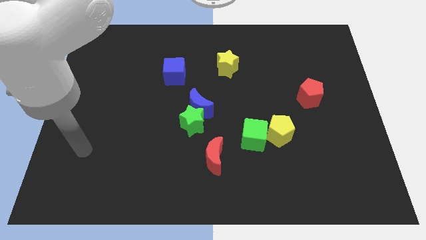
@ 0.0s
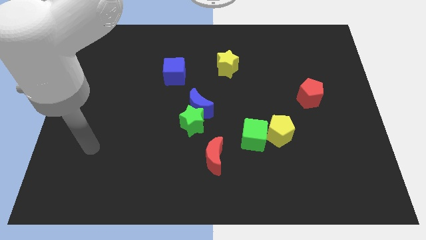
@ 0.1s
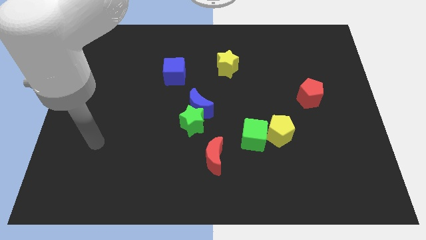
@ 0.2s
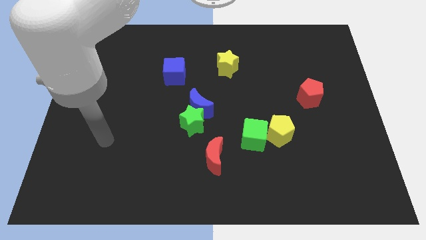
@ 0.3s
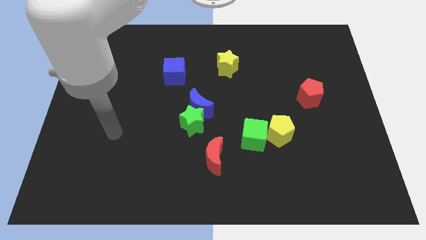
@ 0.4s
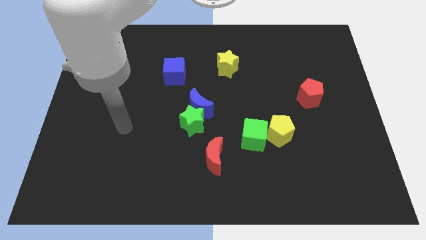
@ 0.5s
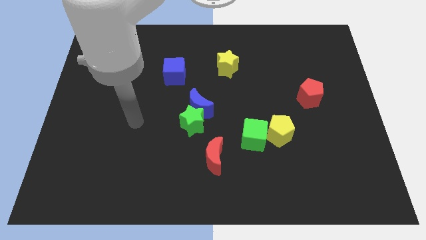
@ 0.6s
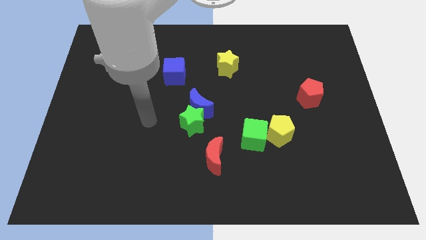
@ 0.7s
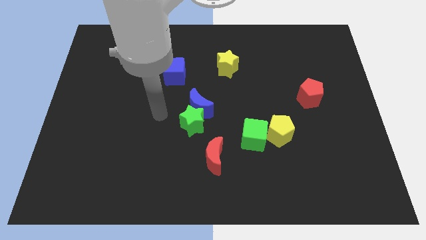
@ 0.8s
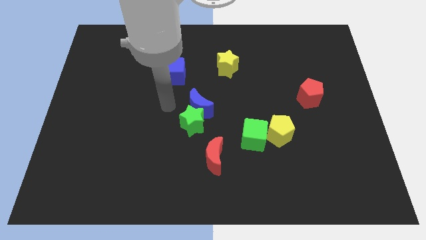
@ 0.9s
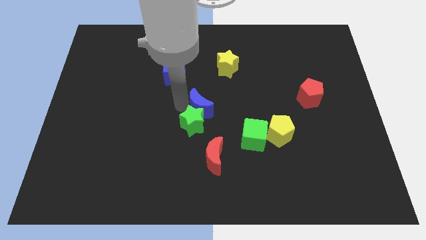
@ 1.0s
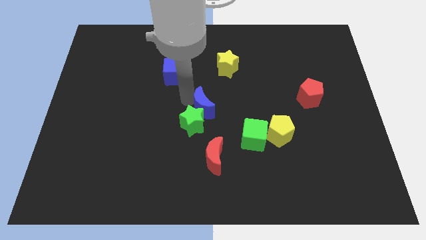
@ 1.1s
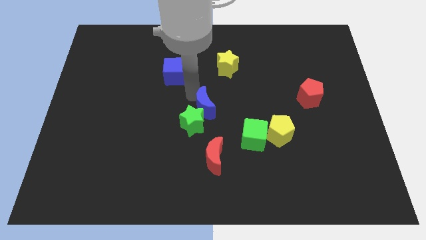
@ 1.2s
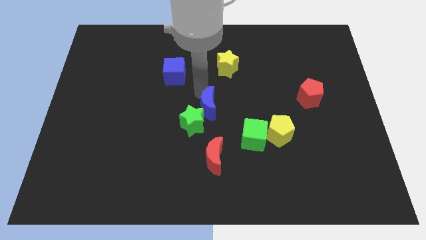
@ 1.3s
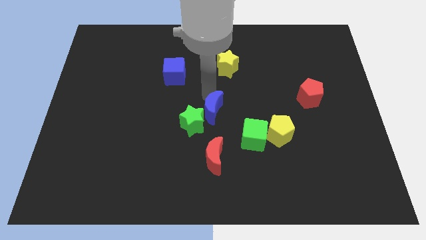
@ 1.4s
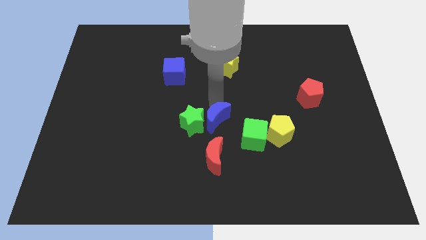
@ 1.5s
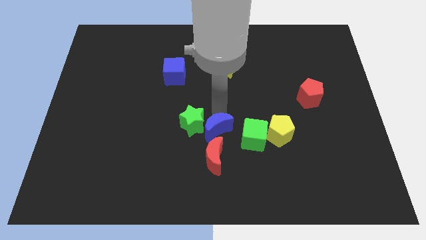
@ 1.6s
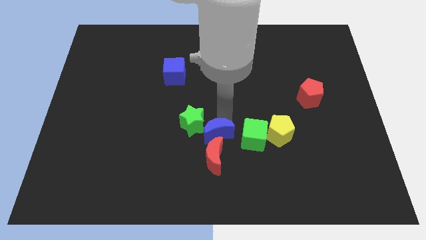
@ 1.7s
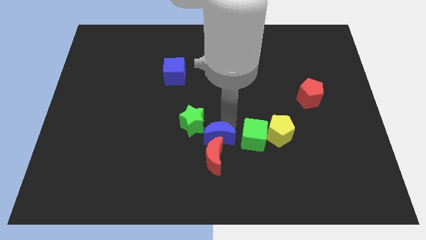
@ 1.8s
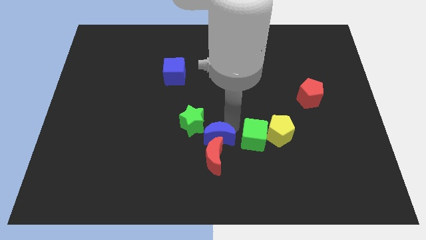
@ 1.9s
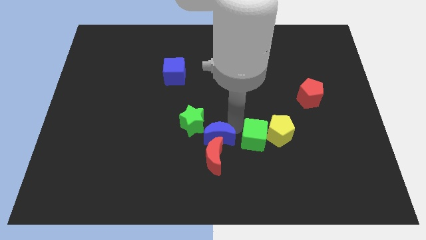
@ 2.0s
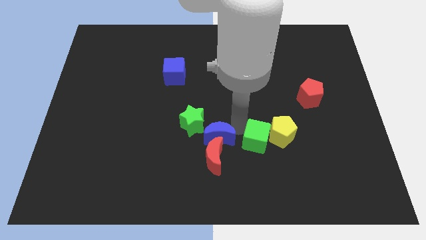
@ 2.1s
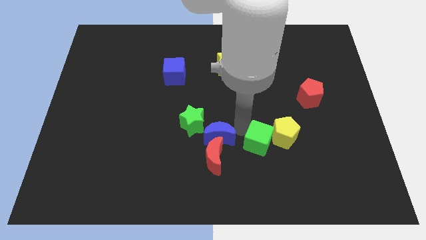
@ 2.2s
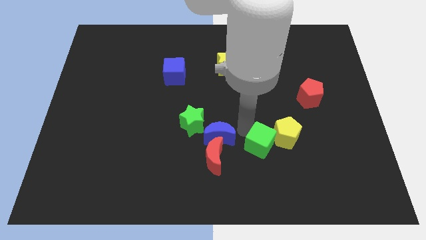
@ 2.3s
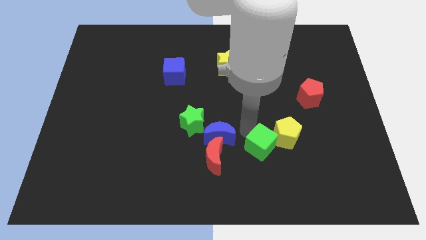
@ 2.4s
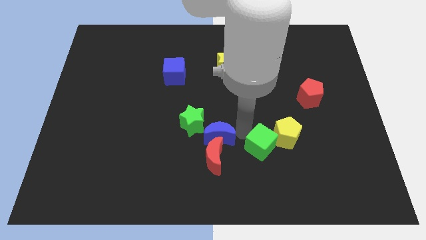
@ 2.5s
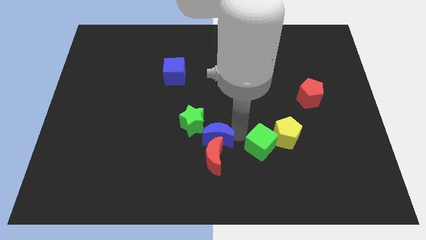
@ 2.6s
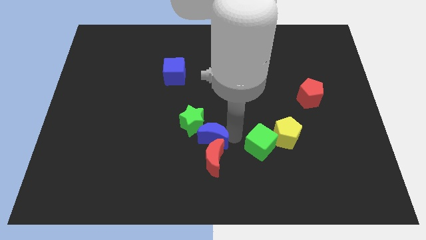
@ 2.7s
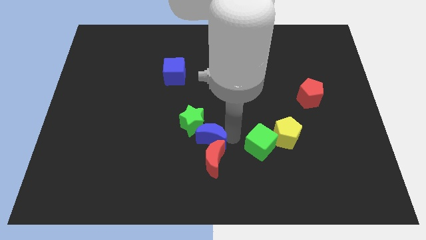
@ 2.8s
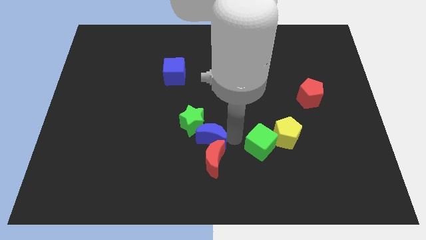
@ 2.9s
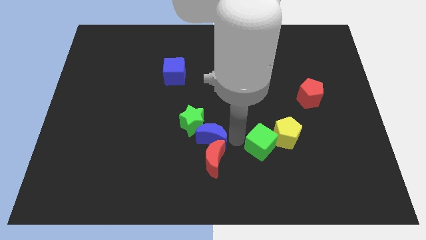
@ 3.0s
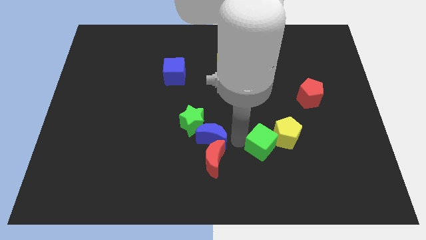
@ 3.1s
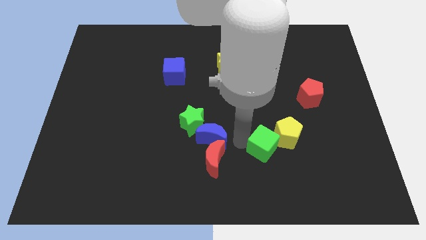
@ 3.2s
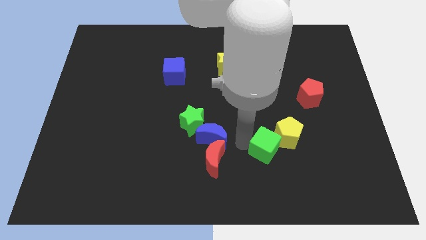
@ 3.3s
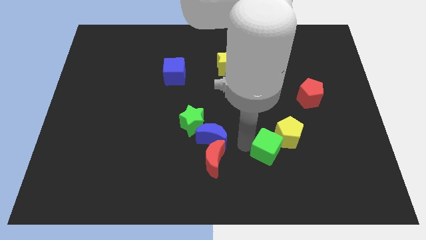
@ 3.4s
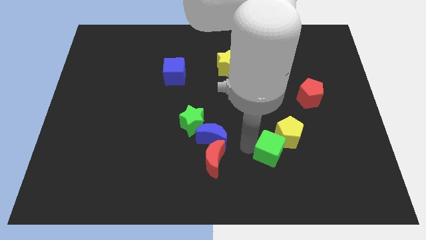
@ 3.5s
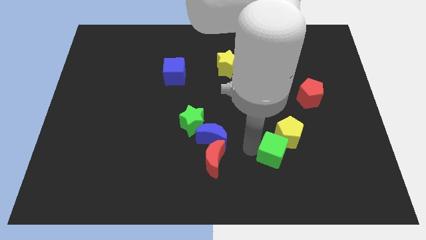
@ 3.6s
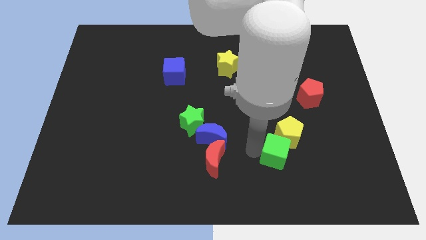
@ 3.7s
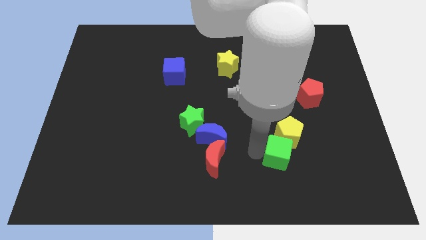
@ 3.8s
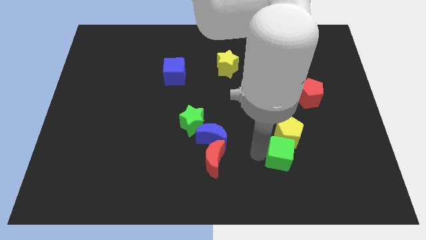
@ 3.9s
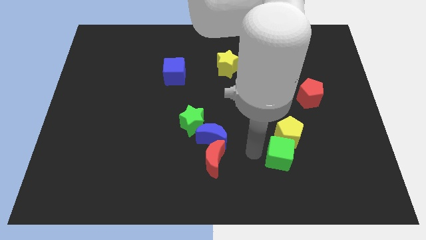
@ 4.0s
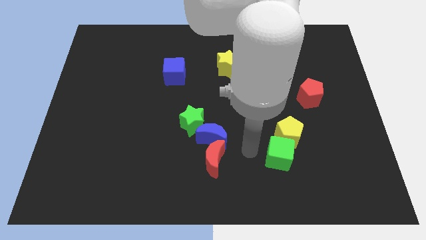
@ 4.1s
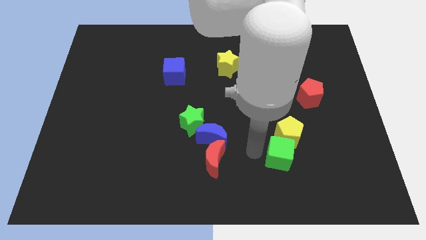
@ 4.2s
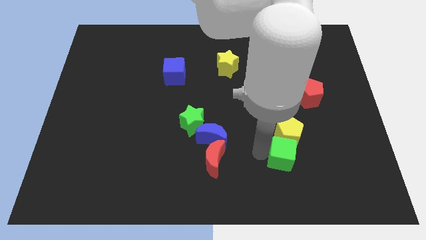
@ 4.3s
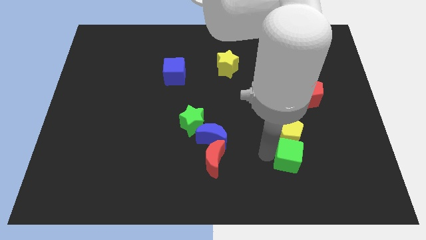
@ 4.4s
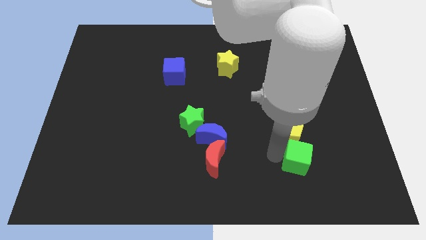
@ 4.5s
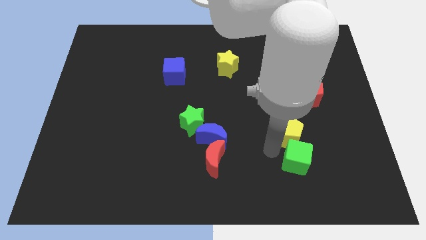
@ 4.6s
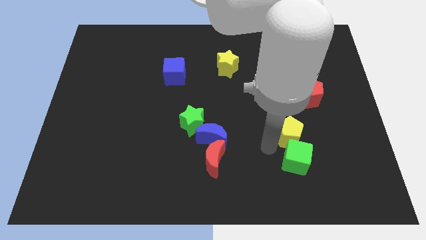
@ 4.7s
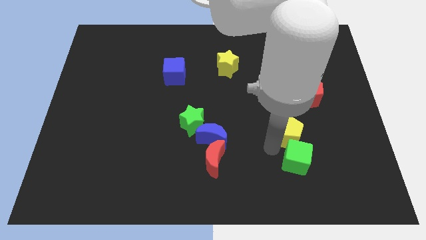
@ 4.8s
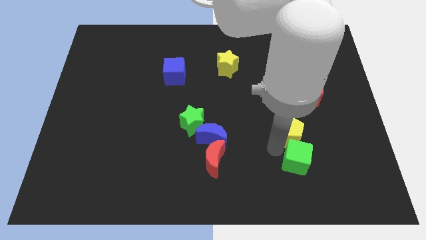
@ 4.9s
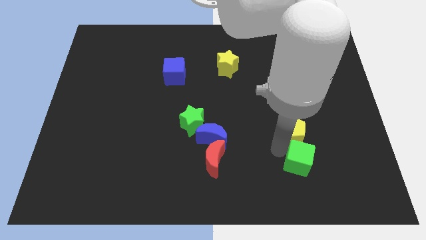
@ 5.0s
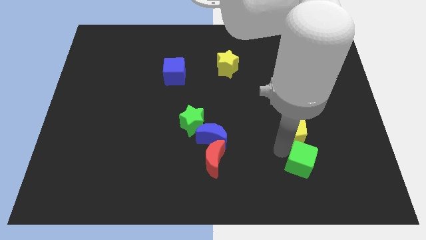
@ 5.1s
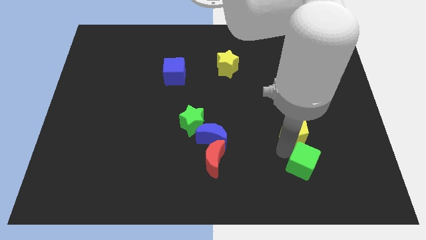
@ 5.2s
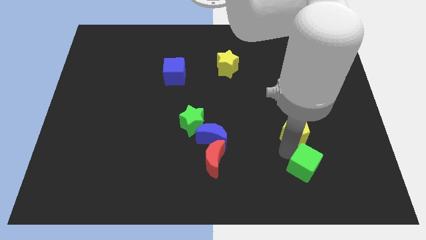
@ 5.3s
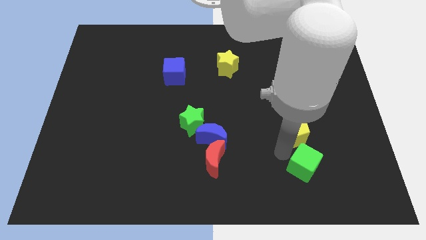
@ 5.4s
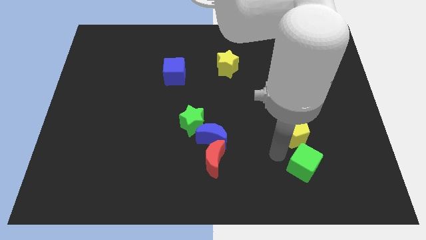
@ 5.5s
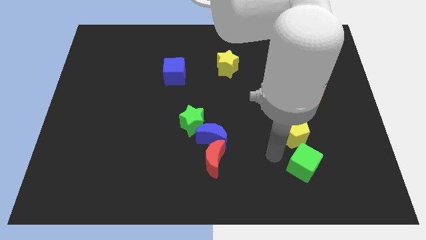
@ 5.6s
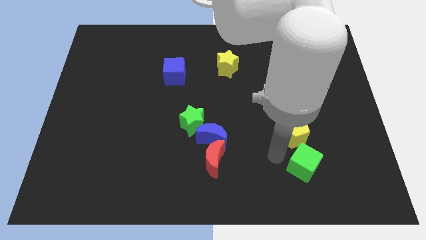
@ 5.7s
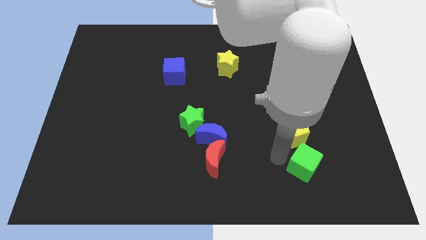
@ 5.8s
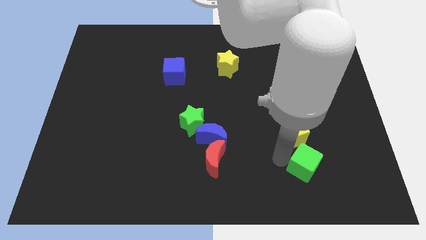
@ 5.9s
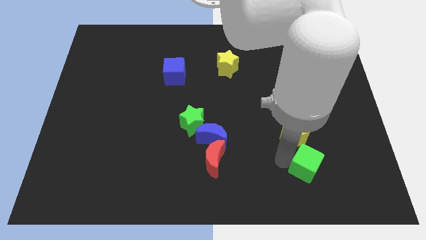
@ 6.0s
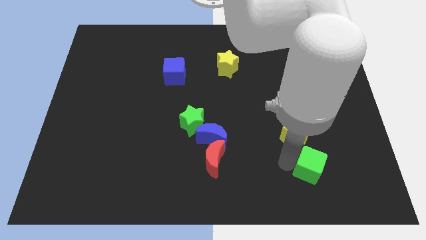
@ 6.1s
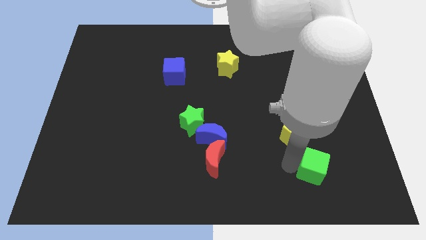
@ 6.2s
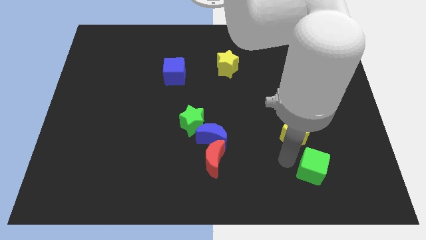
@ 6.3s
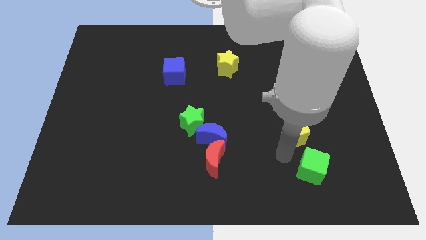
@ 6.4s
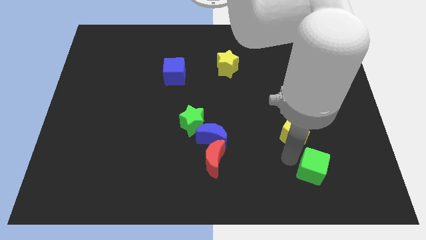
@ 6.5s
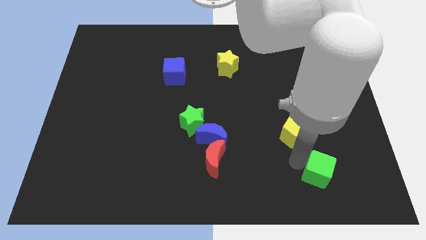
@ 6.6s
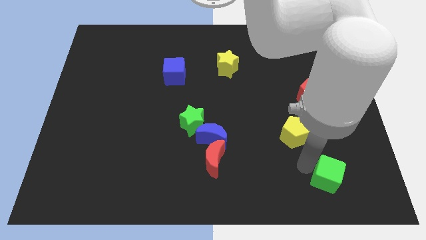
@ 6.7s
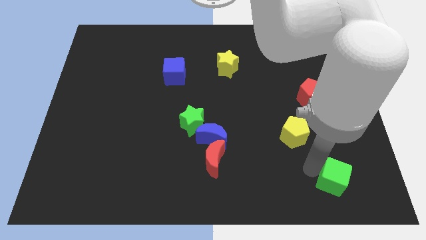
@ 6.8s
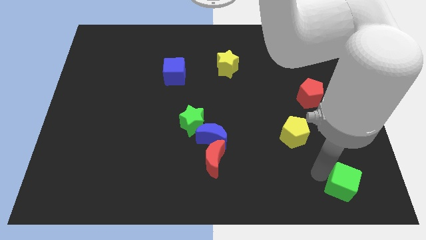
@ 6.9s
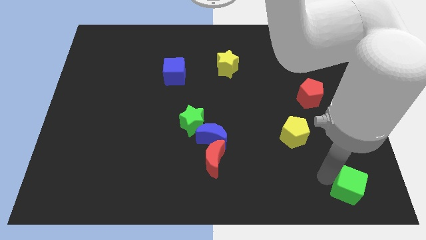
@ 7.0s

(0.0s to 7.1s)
move the green cube to the bottom right corner
